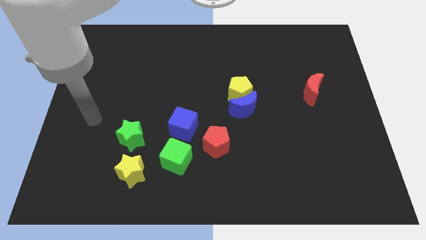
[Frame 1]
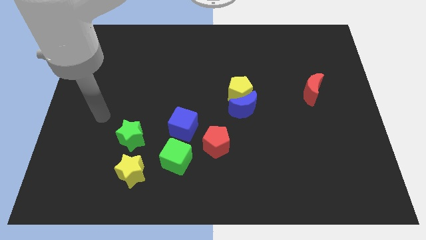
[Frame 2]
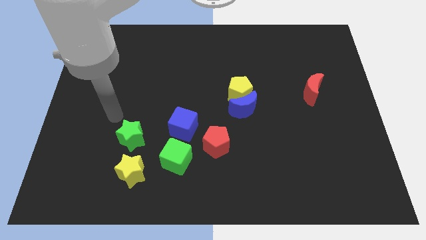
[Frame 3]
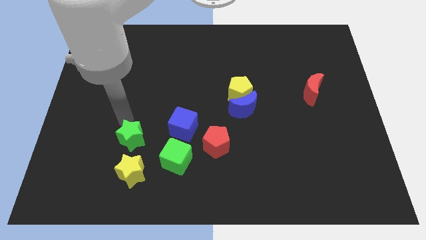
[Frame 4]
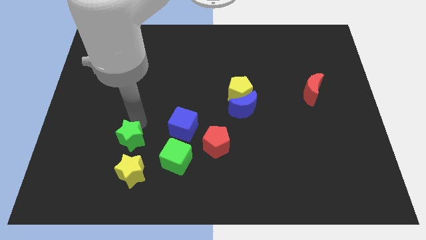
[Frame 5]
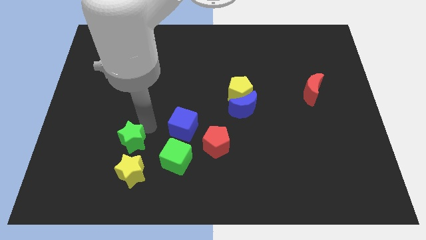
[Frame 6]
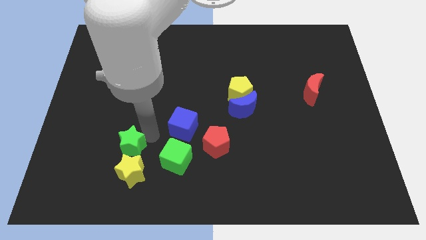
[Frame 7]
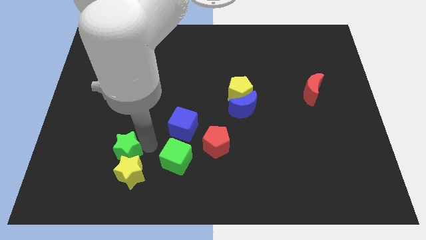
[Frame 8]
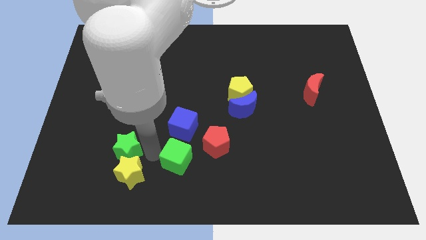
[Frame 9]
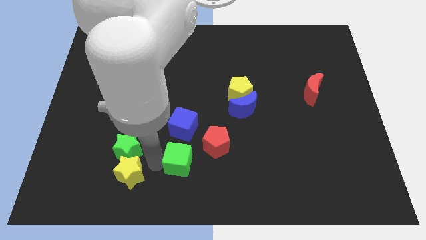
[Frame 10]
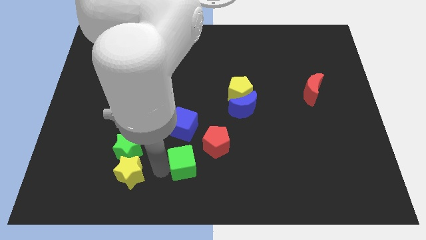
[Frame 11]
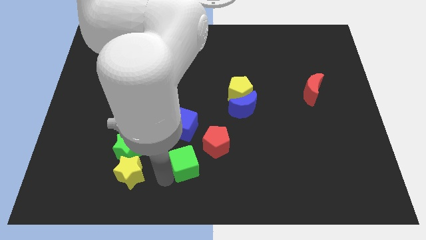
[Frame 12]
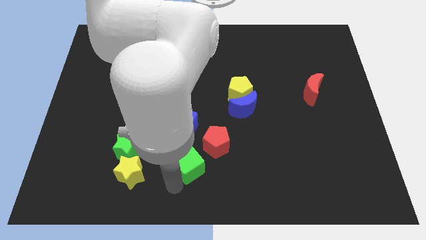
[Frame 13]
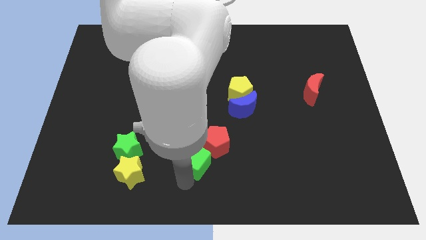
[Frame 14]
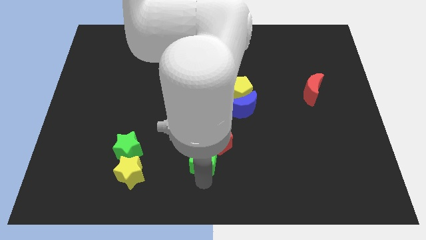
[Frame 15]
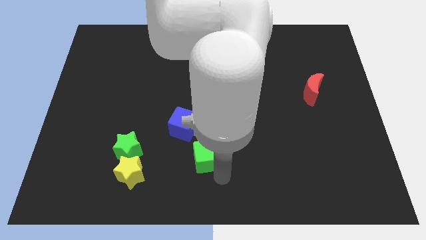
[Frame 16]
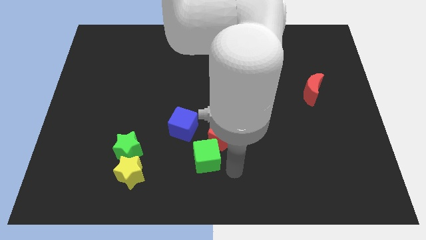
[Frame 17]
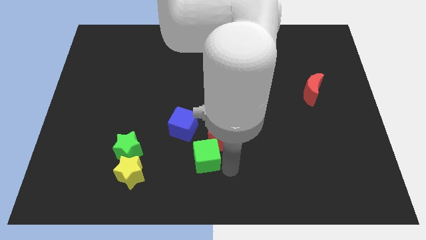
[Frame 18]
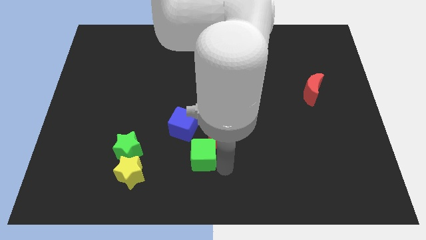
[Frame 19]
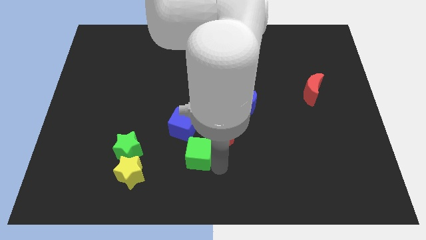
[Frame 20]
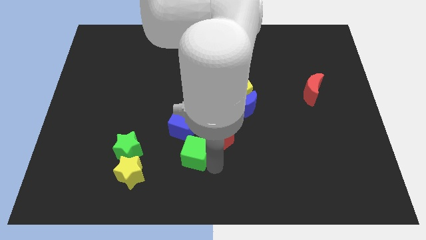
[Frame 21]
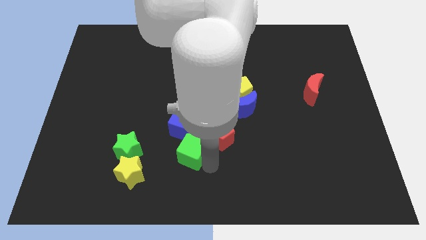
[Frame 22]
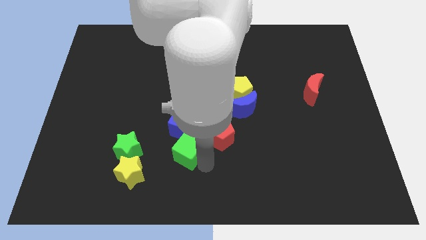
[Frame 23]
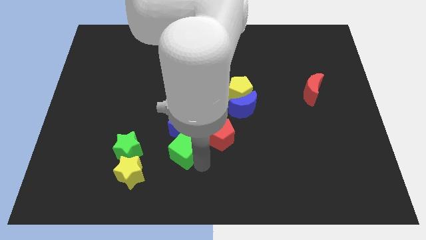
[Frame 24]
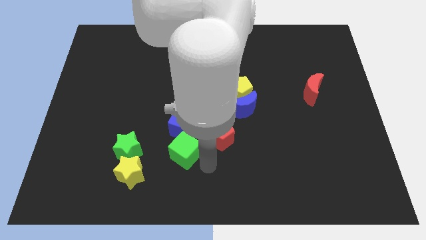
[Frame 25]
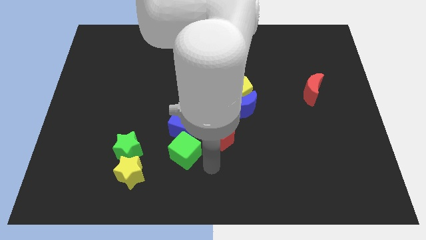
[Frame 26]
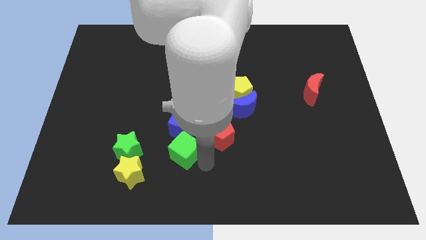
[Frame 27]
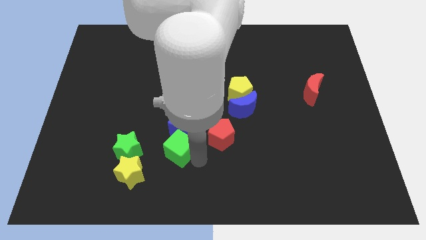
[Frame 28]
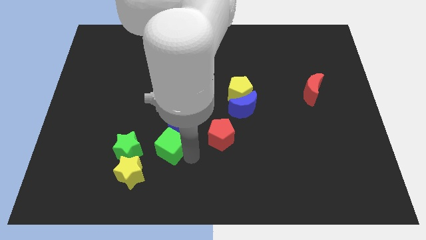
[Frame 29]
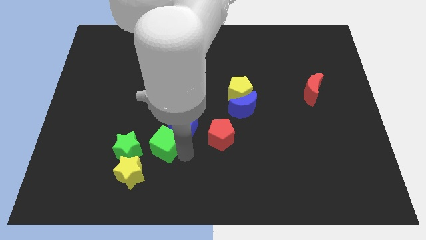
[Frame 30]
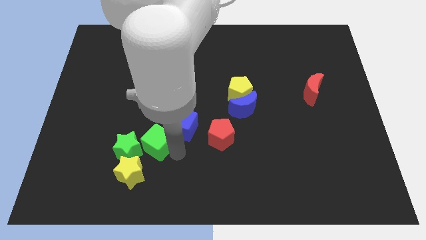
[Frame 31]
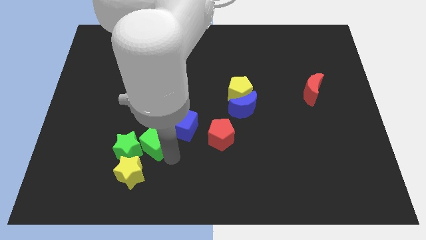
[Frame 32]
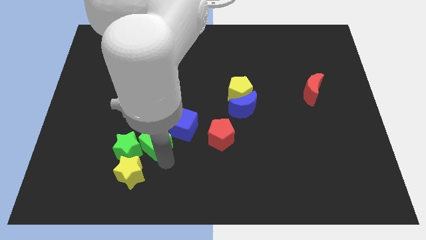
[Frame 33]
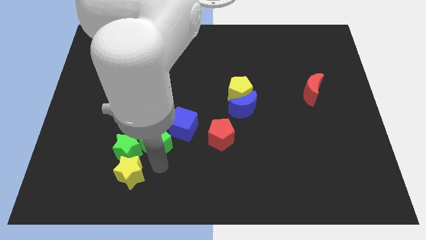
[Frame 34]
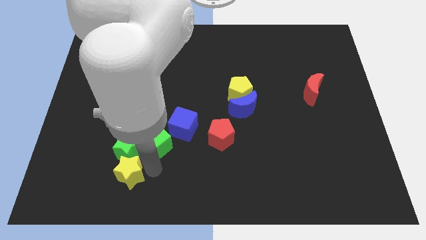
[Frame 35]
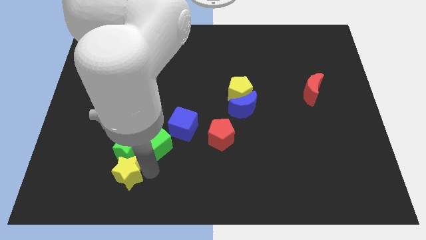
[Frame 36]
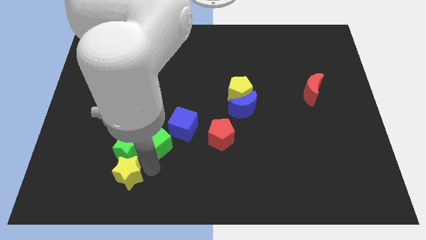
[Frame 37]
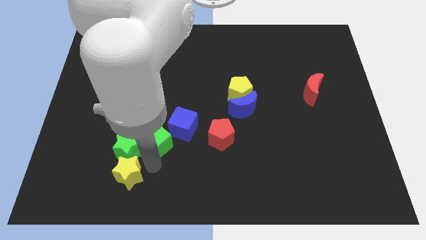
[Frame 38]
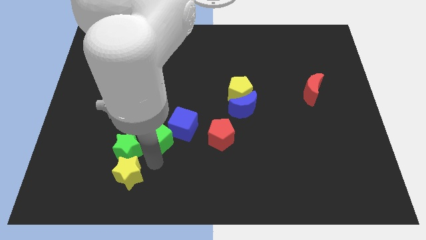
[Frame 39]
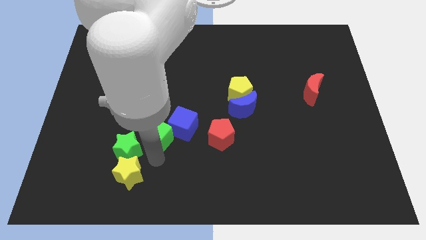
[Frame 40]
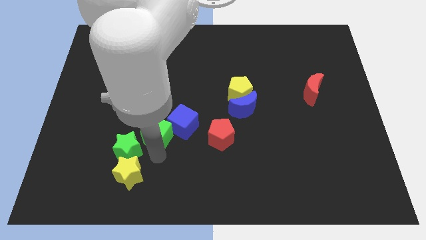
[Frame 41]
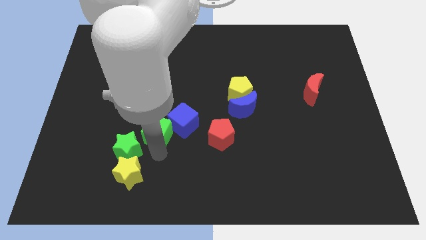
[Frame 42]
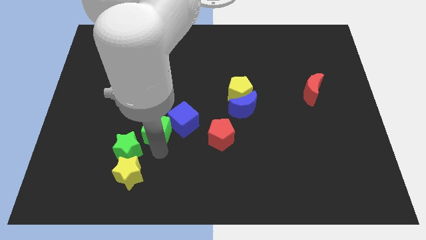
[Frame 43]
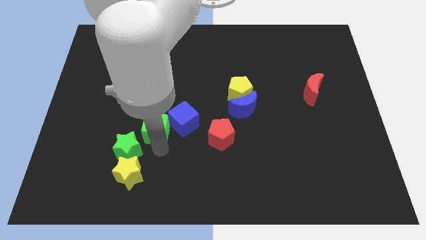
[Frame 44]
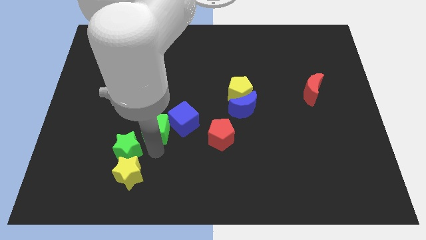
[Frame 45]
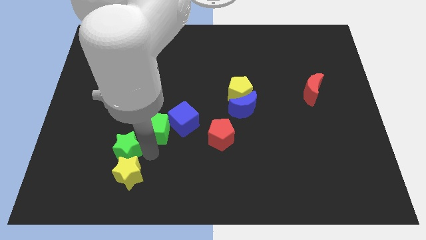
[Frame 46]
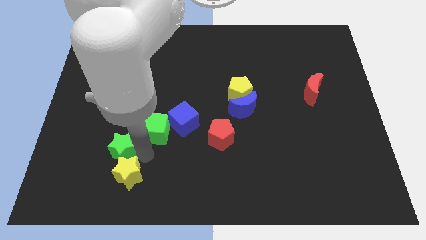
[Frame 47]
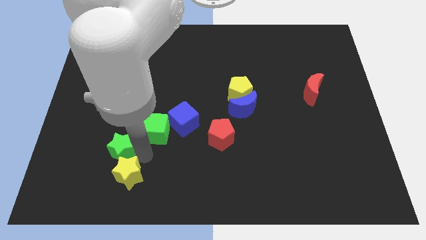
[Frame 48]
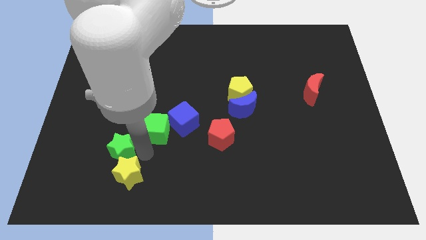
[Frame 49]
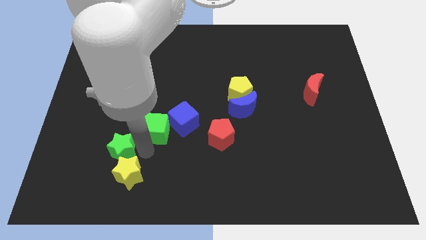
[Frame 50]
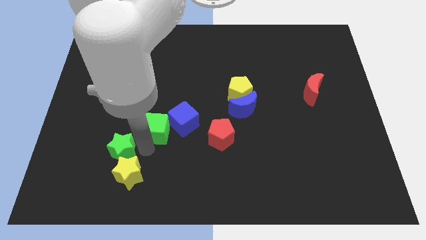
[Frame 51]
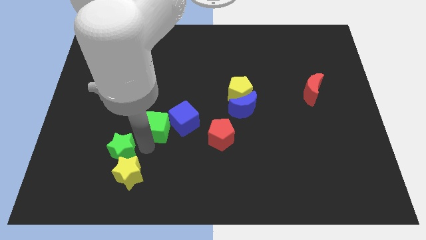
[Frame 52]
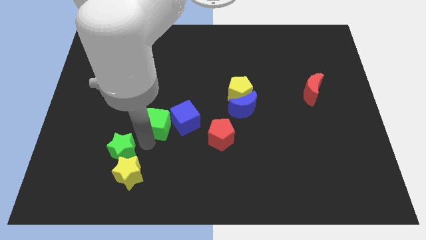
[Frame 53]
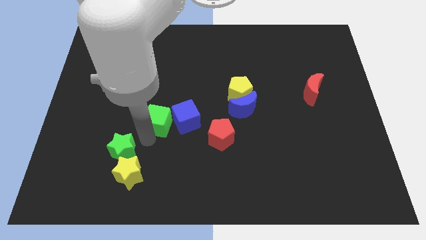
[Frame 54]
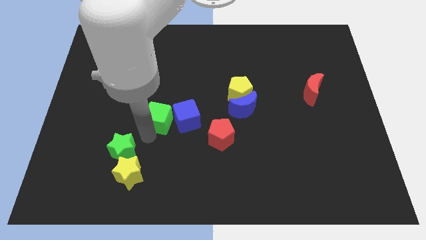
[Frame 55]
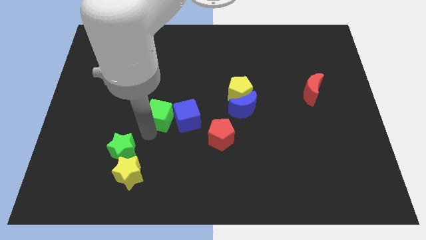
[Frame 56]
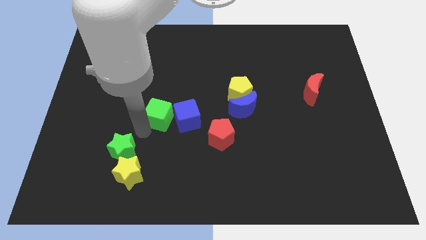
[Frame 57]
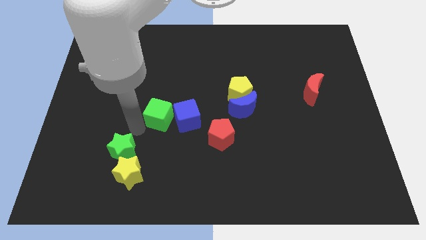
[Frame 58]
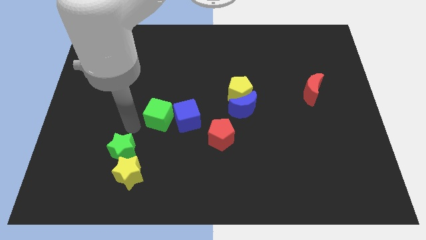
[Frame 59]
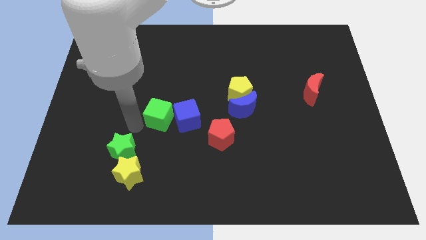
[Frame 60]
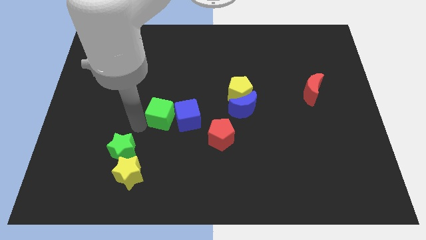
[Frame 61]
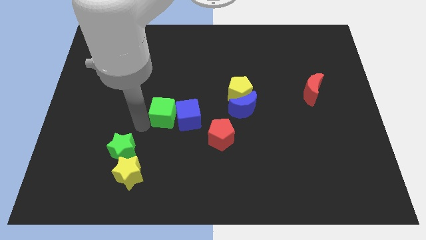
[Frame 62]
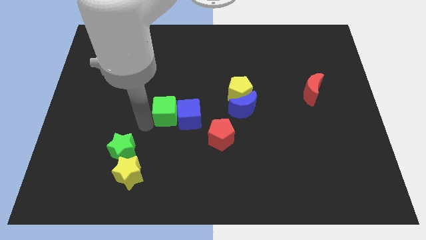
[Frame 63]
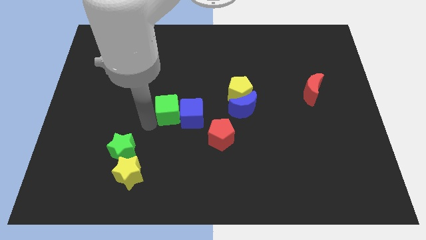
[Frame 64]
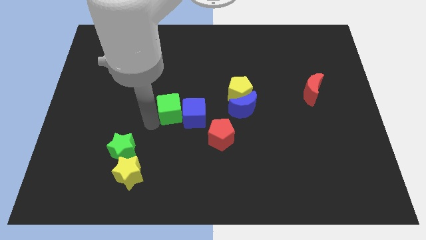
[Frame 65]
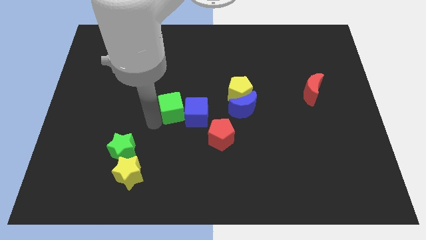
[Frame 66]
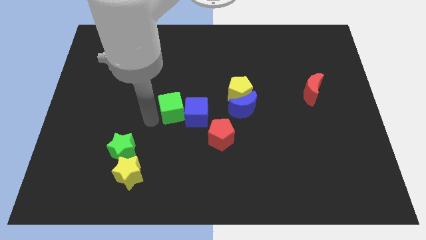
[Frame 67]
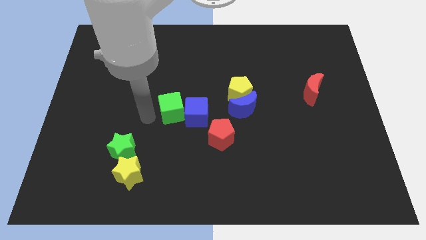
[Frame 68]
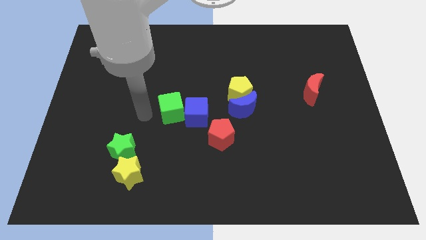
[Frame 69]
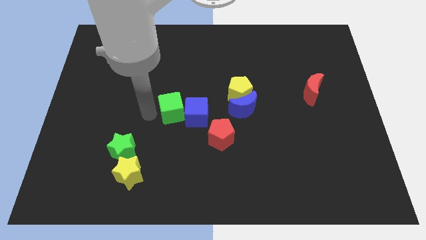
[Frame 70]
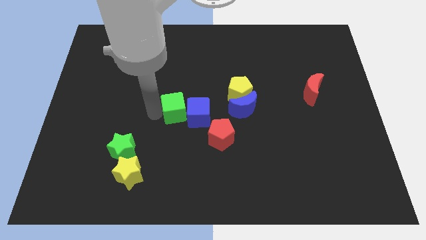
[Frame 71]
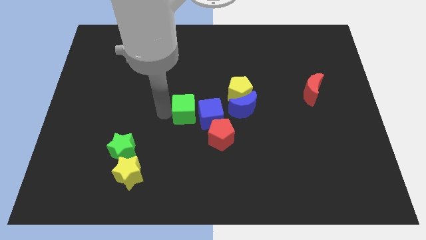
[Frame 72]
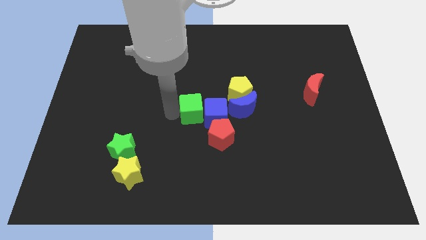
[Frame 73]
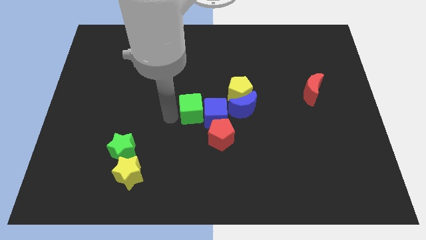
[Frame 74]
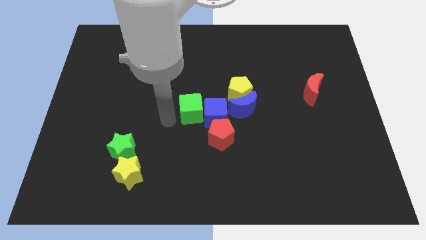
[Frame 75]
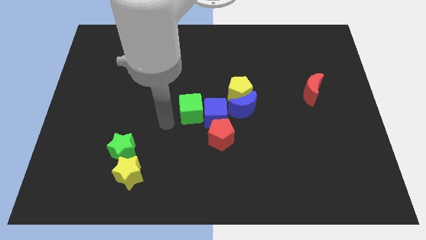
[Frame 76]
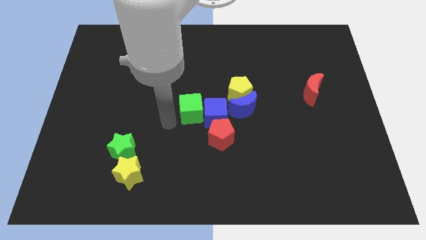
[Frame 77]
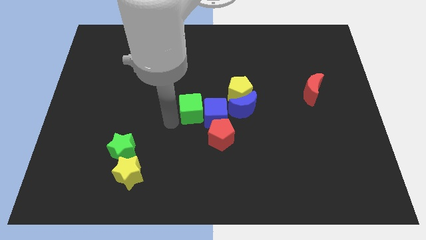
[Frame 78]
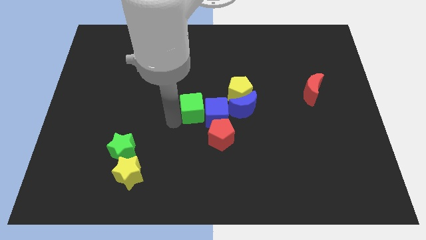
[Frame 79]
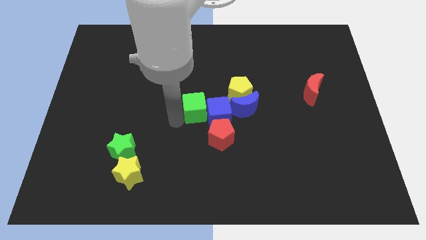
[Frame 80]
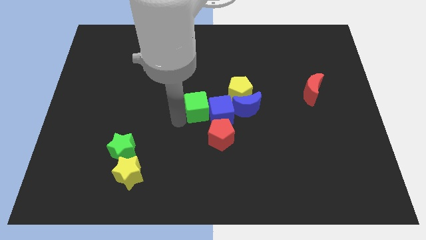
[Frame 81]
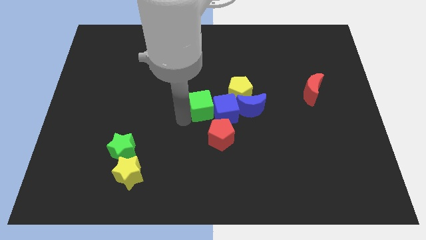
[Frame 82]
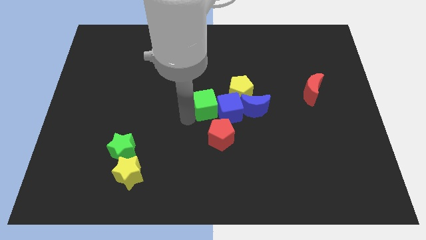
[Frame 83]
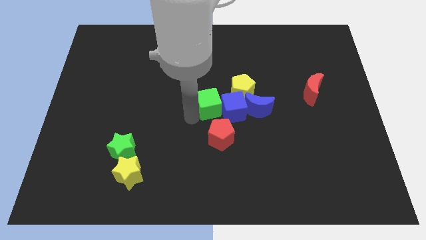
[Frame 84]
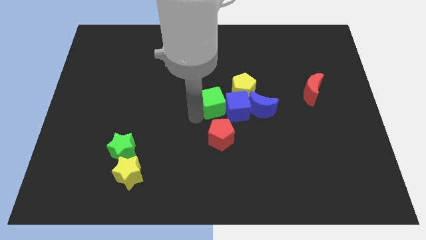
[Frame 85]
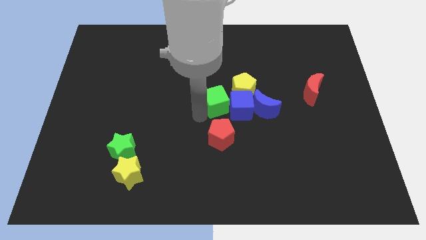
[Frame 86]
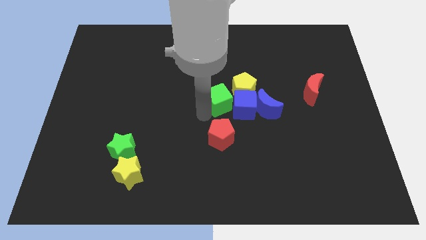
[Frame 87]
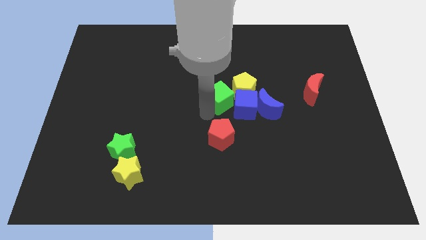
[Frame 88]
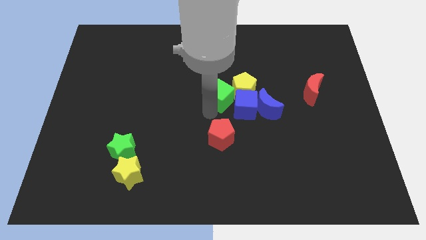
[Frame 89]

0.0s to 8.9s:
move the green cube towards the yellow pentagon
